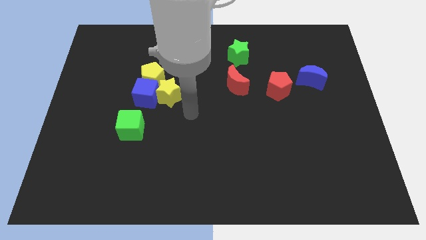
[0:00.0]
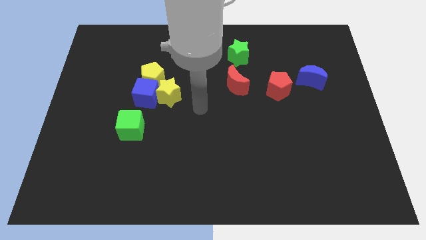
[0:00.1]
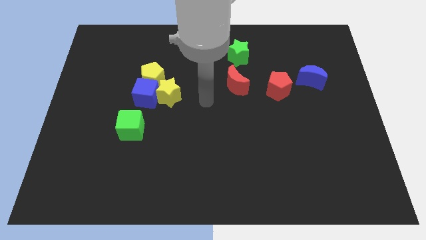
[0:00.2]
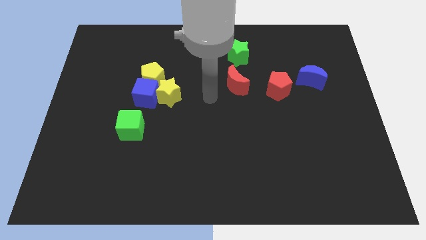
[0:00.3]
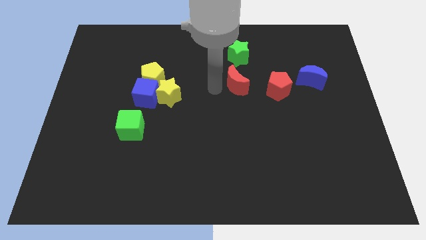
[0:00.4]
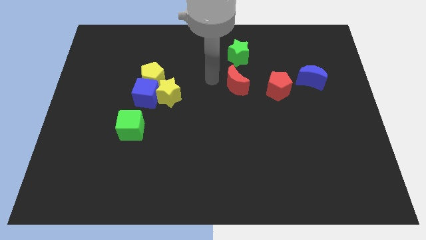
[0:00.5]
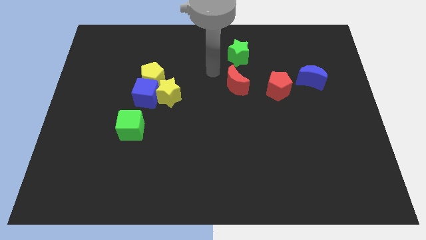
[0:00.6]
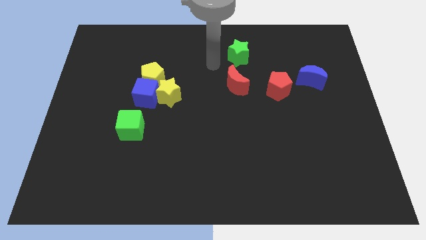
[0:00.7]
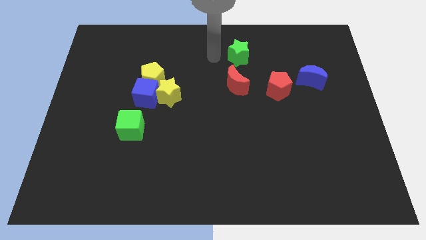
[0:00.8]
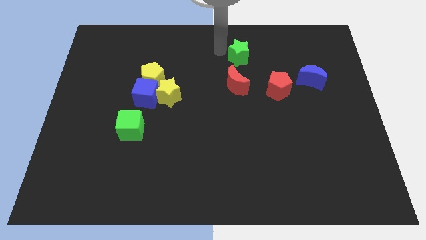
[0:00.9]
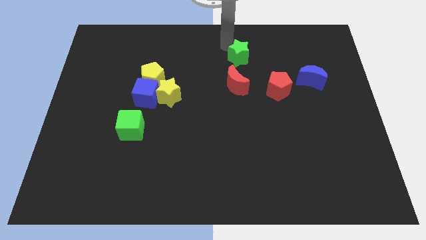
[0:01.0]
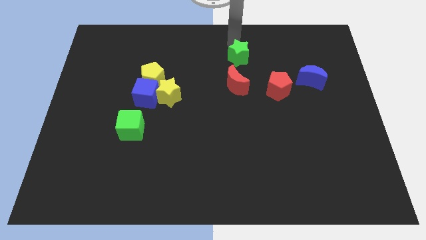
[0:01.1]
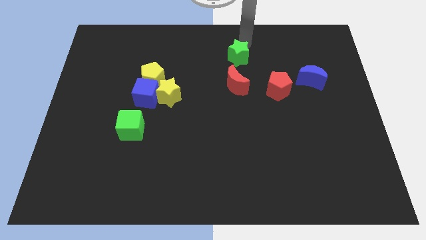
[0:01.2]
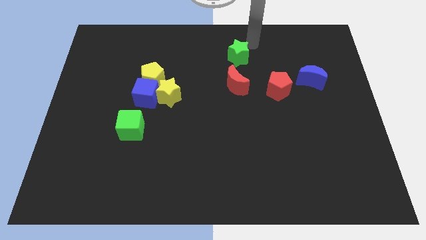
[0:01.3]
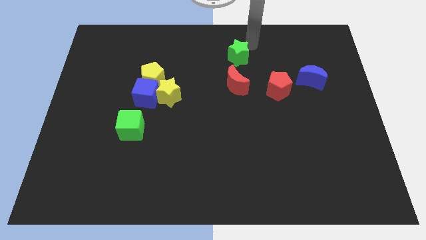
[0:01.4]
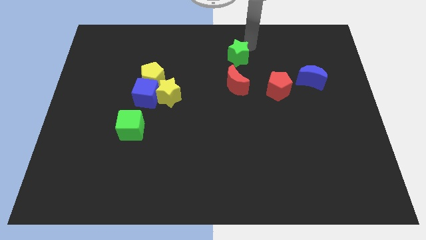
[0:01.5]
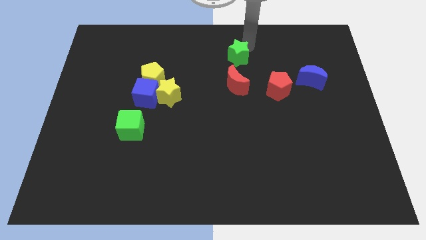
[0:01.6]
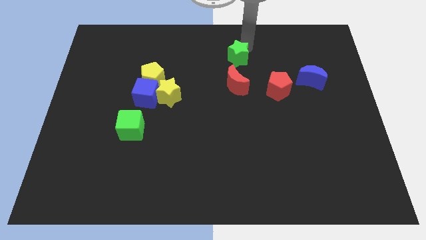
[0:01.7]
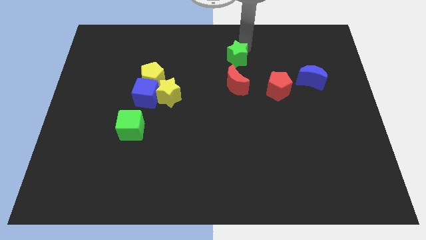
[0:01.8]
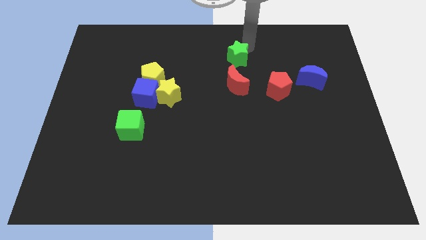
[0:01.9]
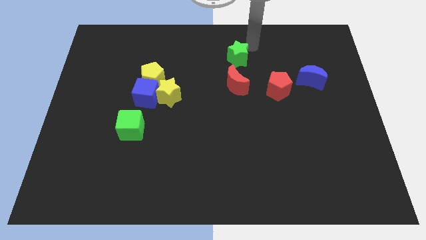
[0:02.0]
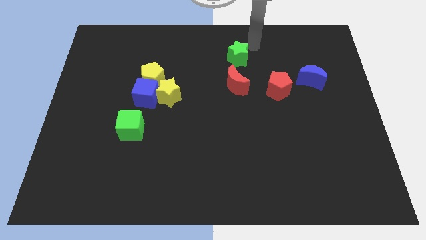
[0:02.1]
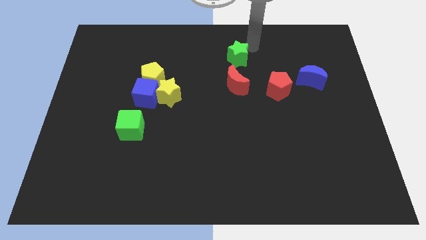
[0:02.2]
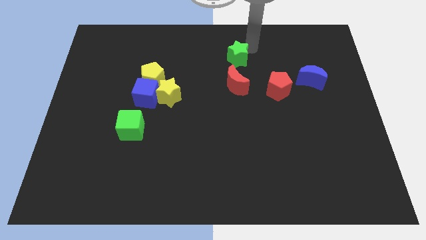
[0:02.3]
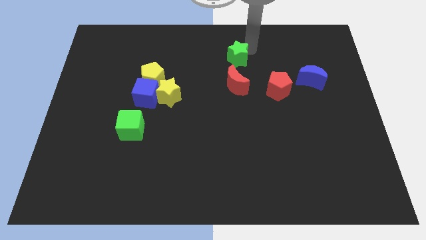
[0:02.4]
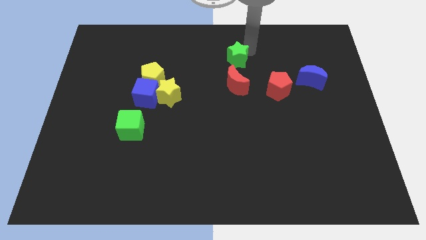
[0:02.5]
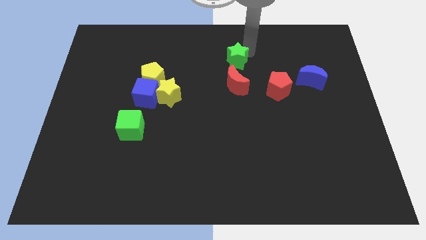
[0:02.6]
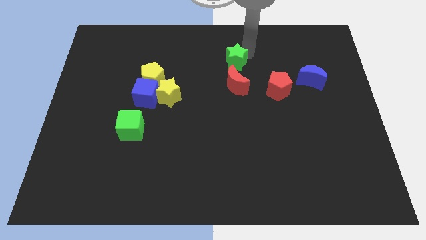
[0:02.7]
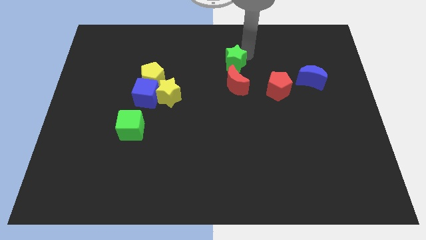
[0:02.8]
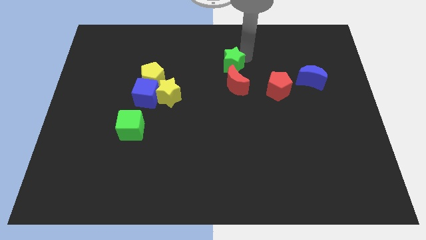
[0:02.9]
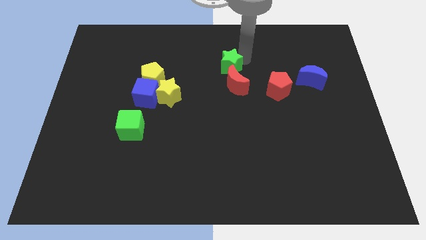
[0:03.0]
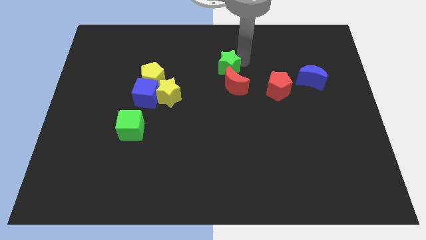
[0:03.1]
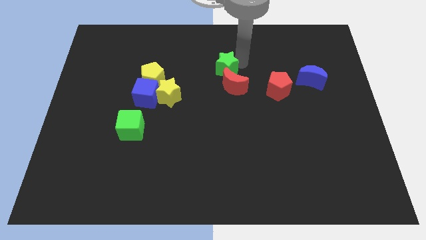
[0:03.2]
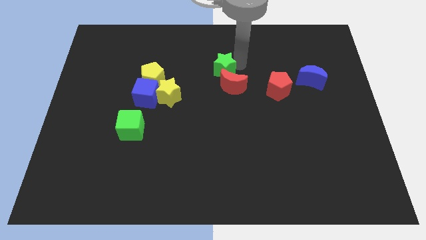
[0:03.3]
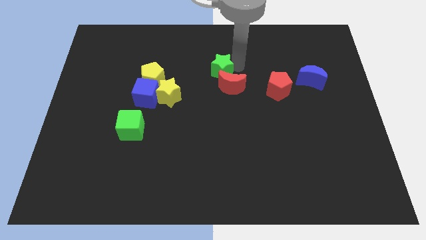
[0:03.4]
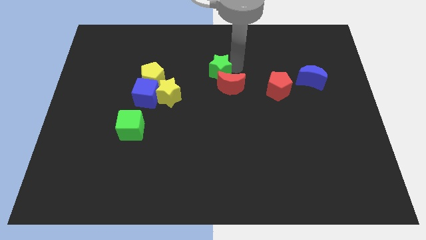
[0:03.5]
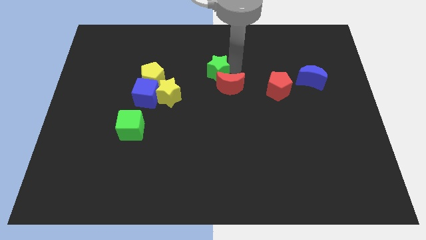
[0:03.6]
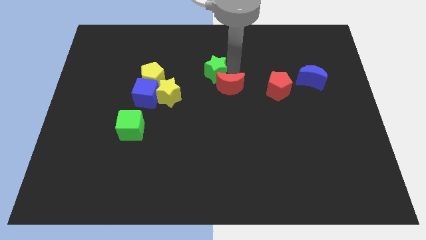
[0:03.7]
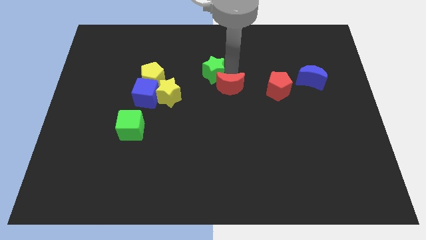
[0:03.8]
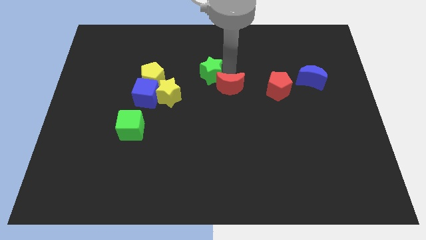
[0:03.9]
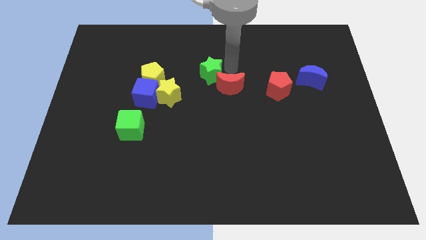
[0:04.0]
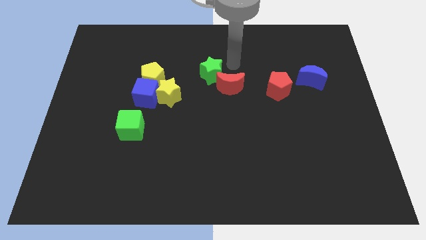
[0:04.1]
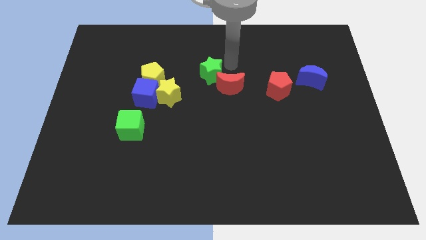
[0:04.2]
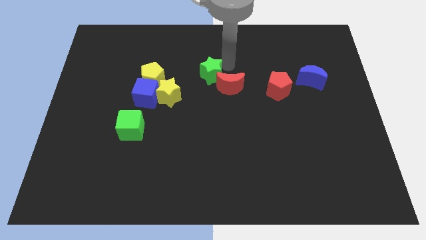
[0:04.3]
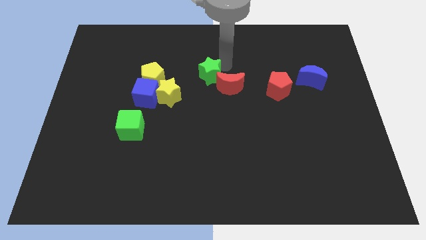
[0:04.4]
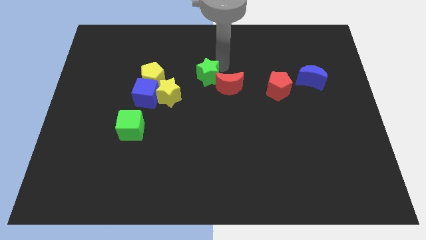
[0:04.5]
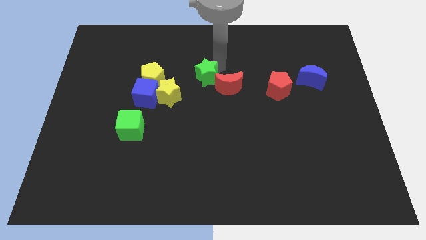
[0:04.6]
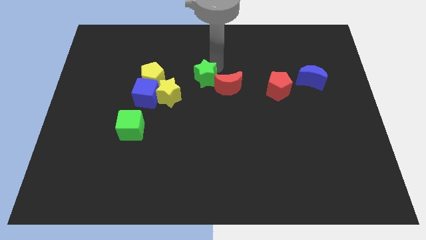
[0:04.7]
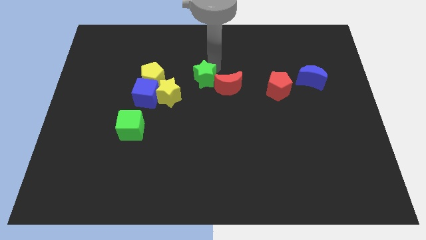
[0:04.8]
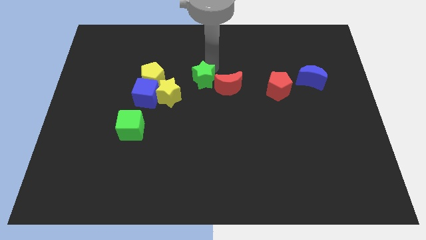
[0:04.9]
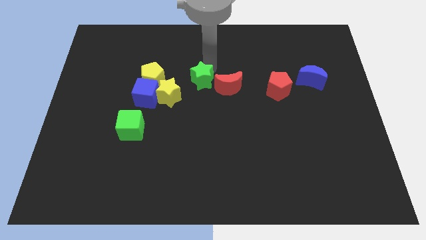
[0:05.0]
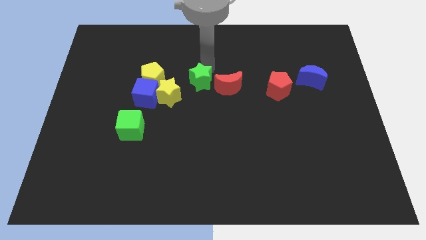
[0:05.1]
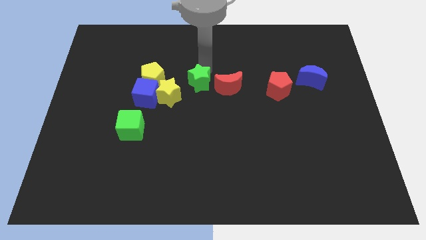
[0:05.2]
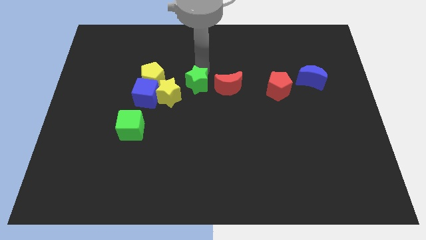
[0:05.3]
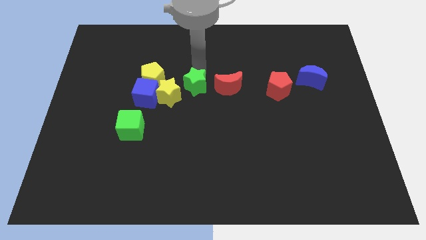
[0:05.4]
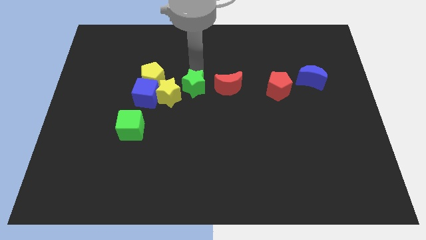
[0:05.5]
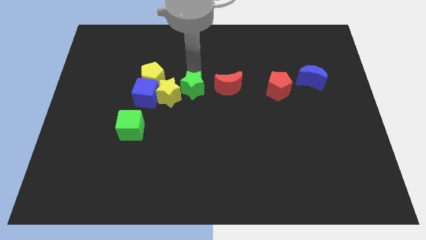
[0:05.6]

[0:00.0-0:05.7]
move the green star next to the yellow star

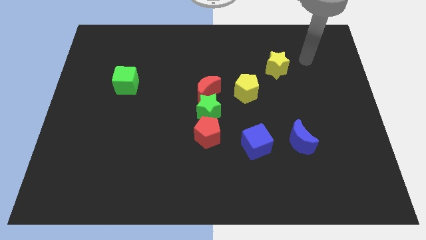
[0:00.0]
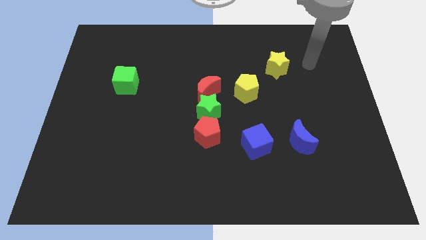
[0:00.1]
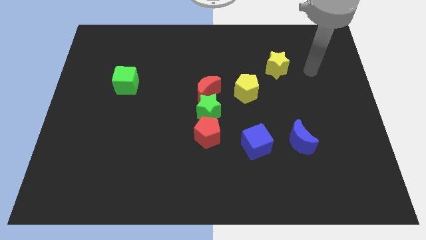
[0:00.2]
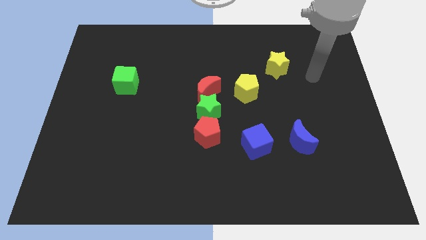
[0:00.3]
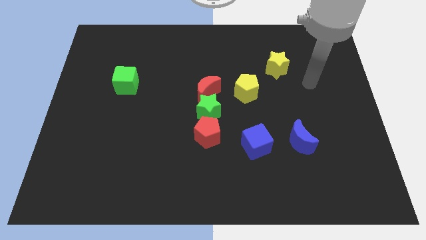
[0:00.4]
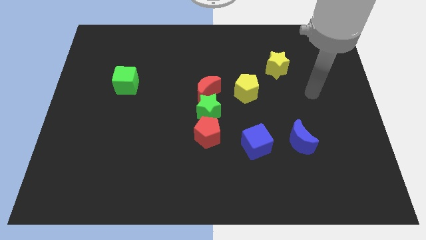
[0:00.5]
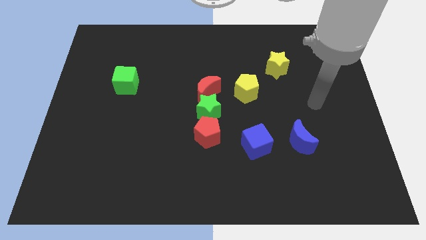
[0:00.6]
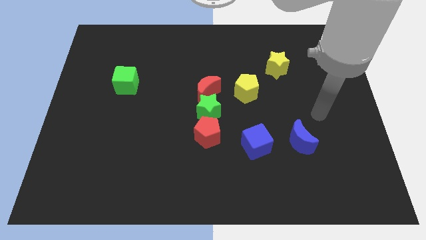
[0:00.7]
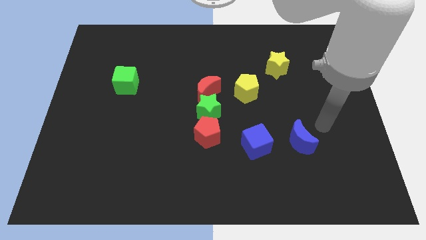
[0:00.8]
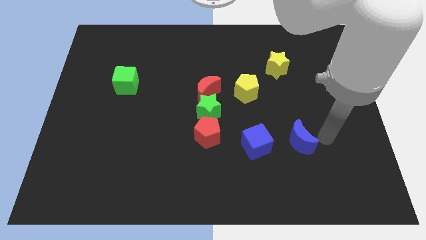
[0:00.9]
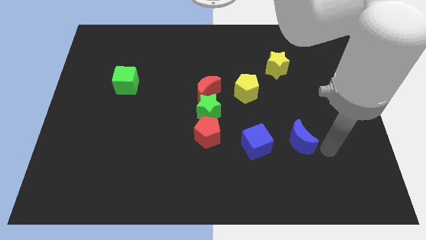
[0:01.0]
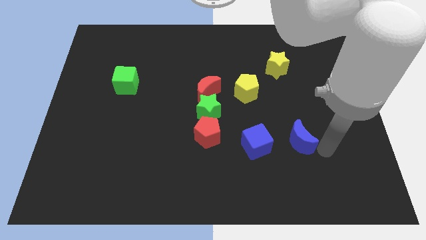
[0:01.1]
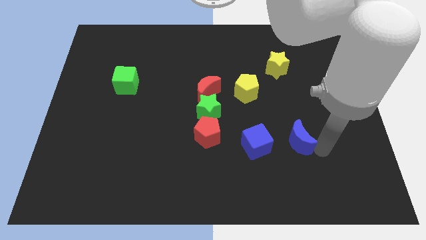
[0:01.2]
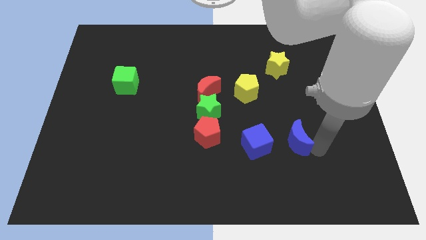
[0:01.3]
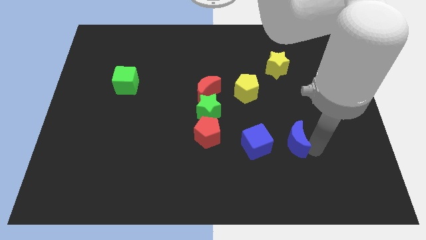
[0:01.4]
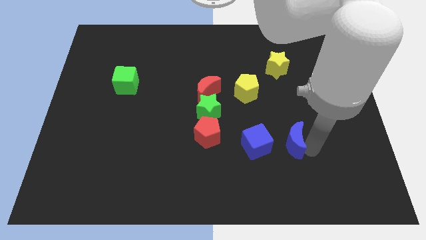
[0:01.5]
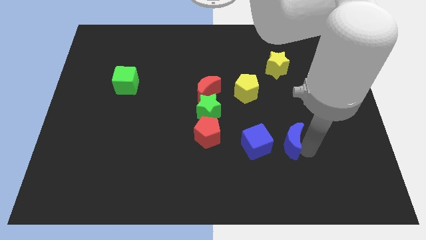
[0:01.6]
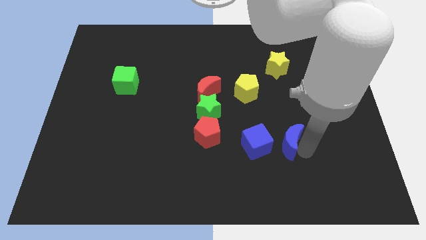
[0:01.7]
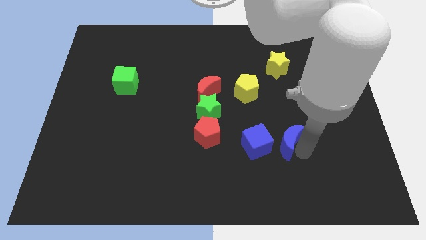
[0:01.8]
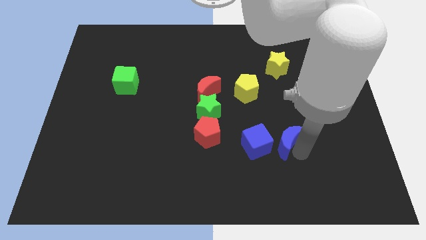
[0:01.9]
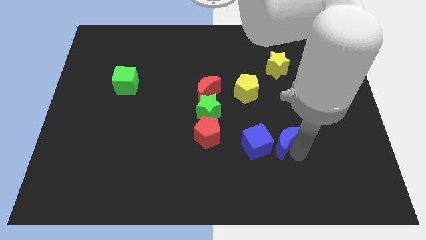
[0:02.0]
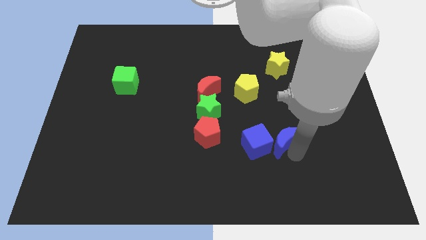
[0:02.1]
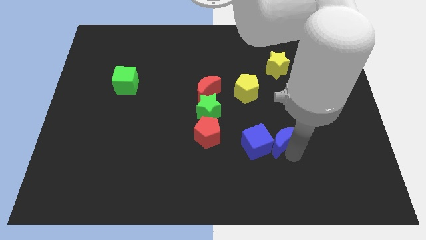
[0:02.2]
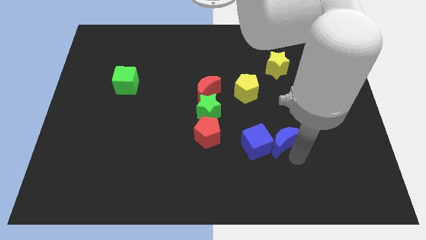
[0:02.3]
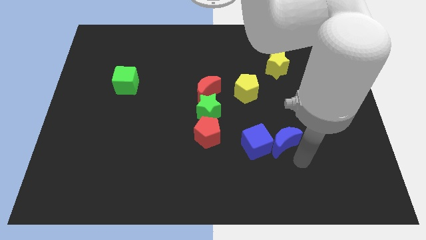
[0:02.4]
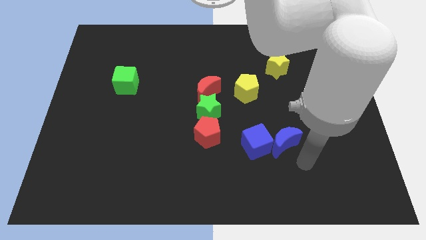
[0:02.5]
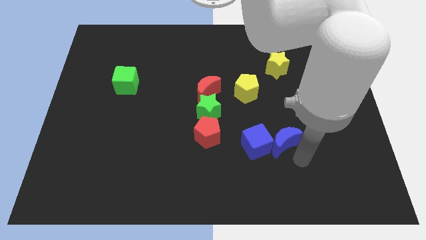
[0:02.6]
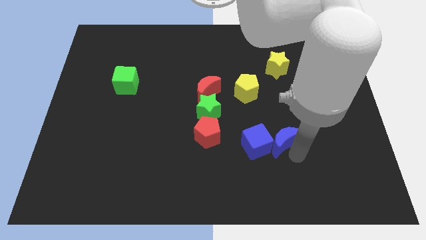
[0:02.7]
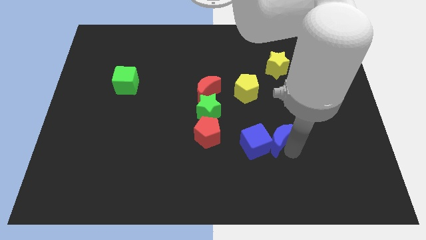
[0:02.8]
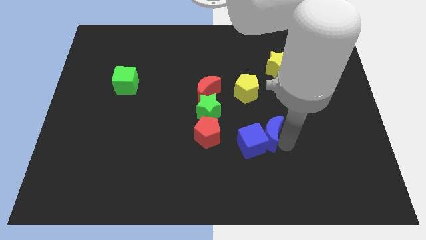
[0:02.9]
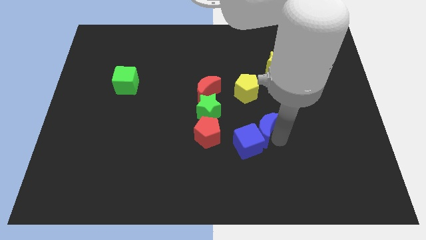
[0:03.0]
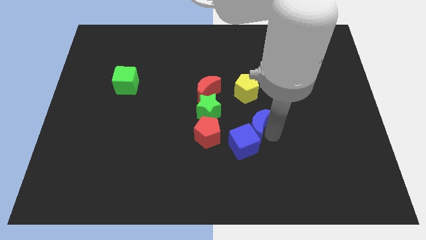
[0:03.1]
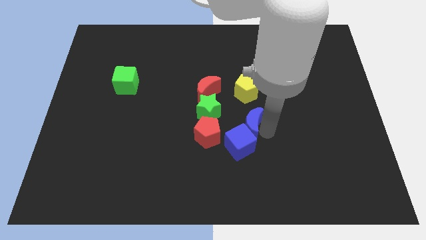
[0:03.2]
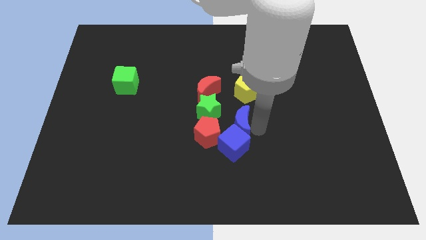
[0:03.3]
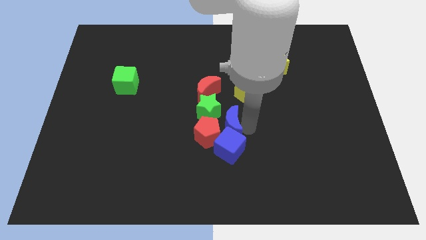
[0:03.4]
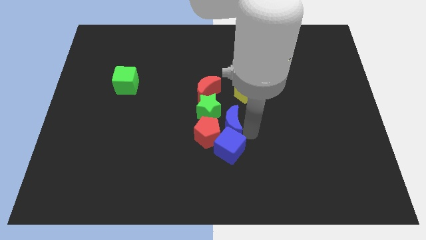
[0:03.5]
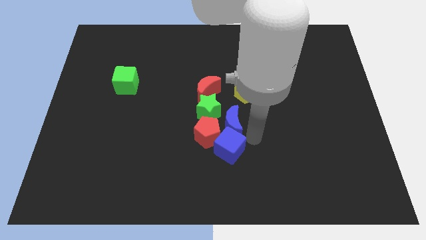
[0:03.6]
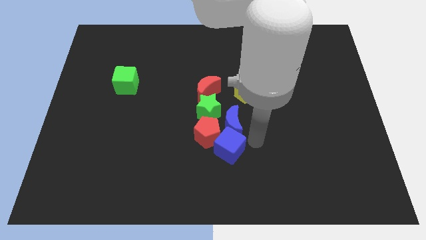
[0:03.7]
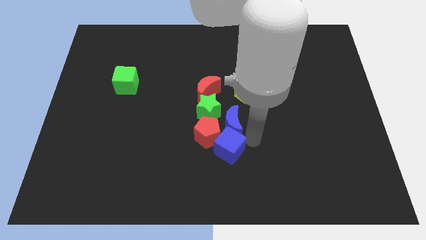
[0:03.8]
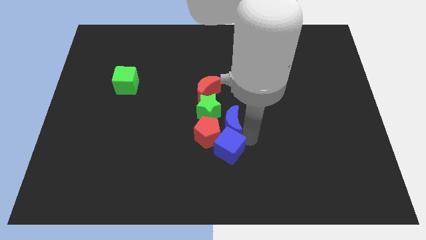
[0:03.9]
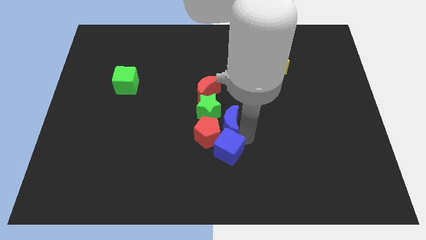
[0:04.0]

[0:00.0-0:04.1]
push the blue moon next to the green star
